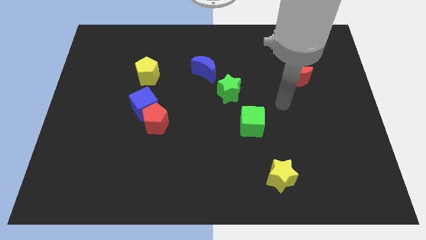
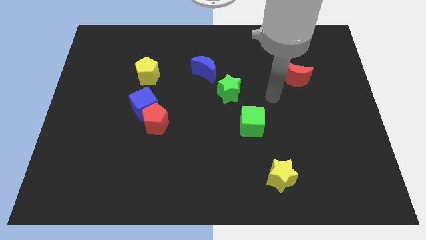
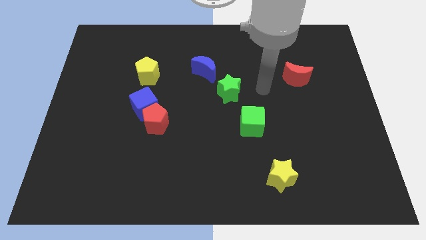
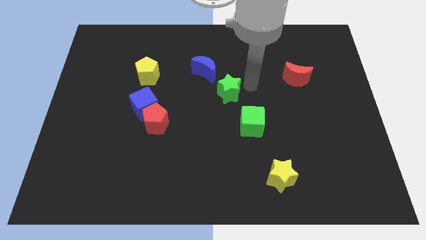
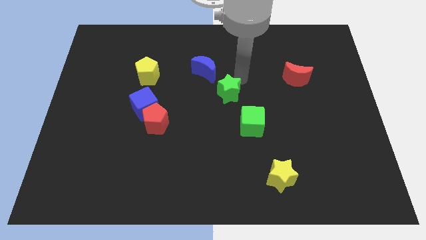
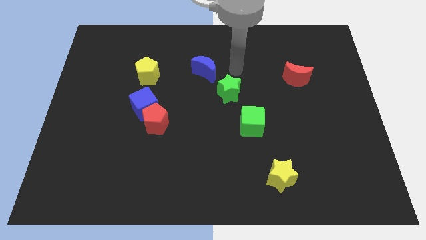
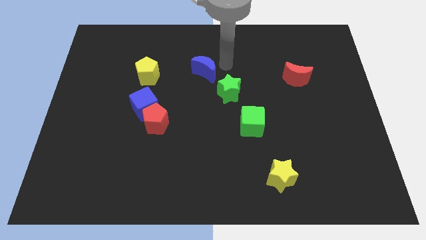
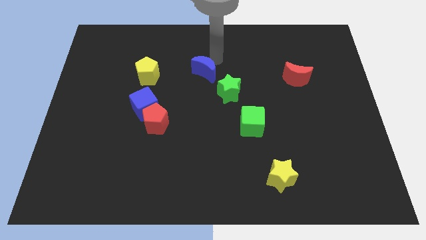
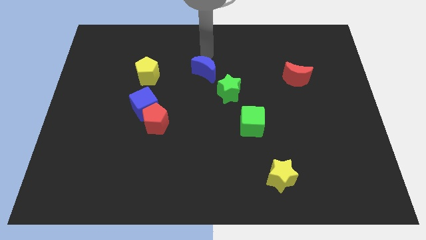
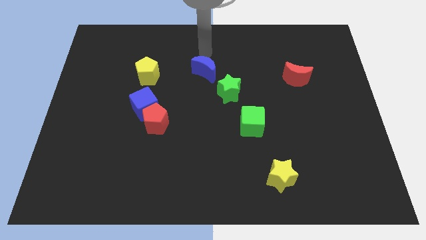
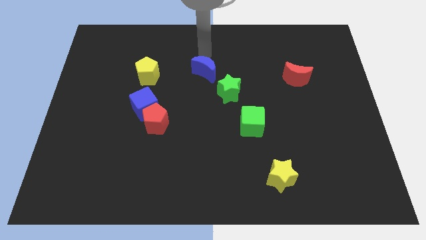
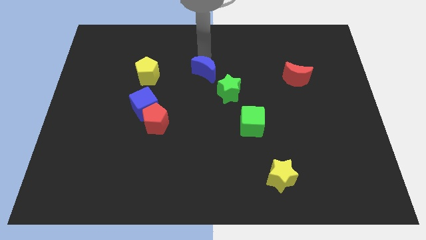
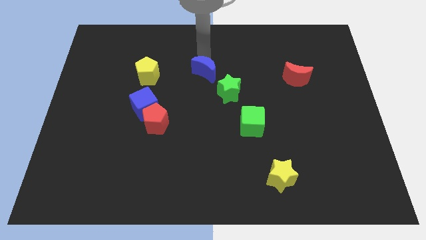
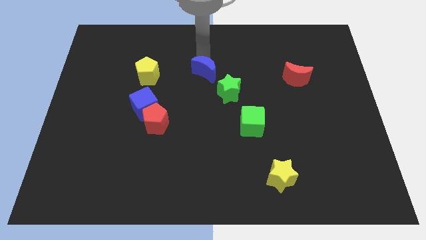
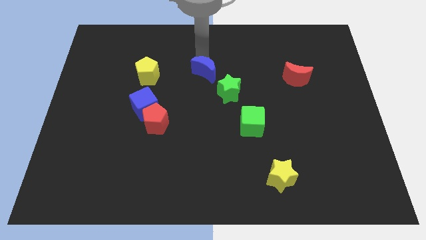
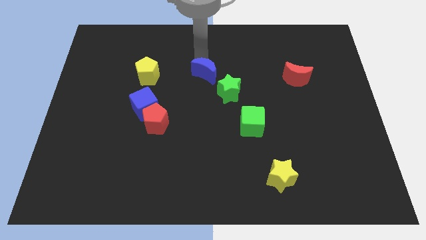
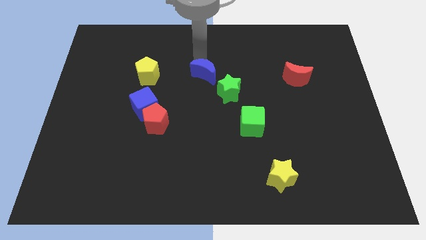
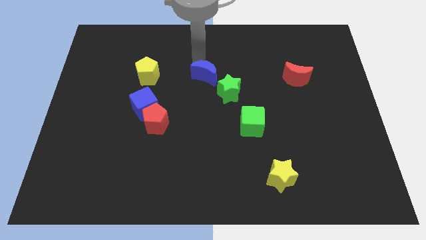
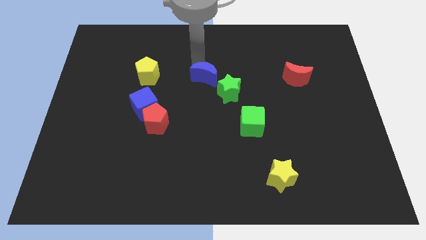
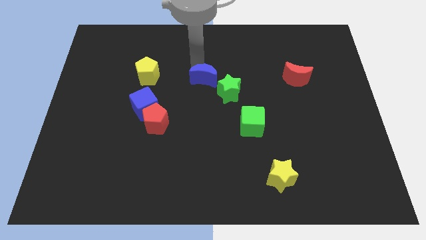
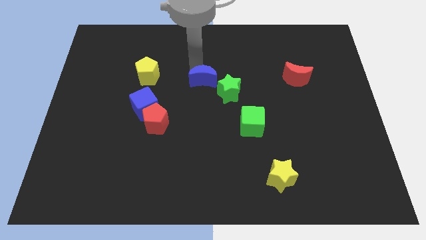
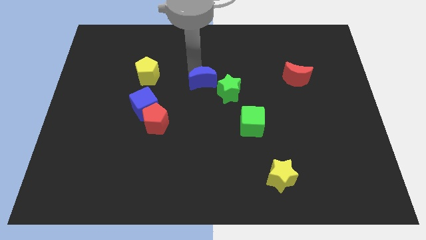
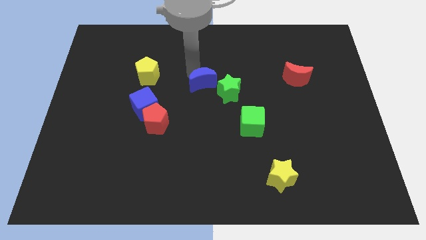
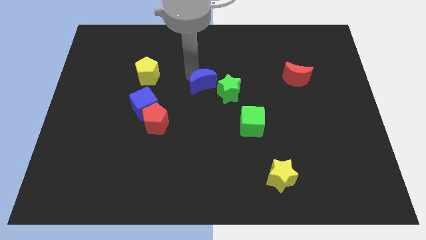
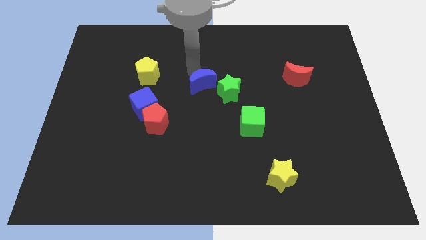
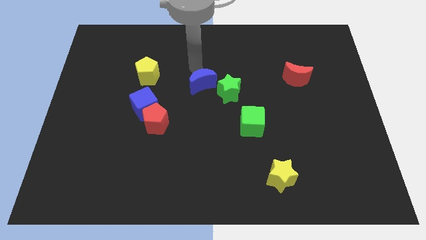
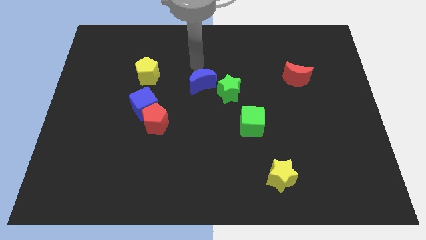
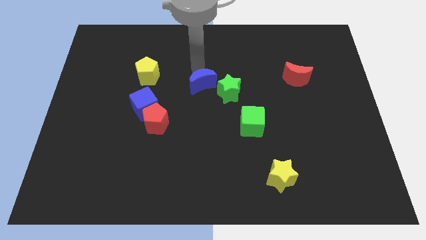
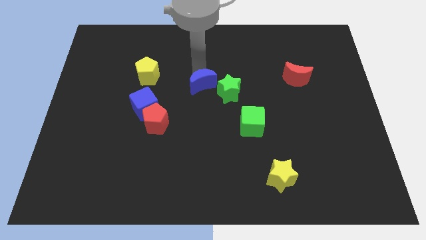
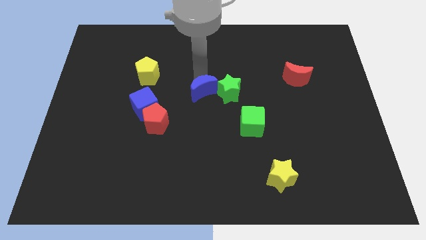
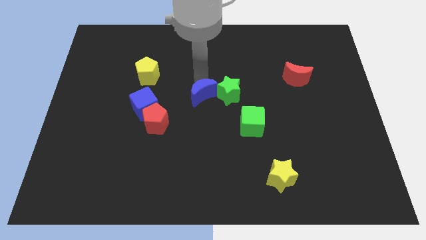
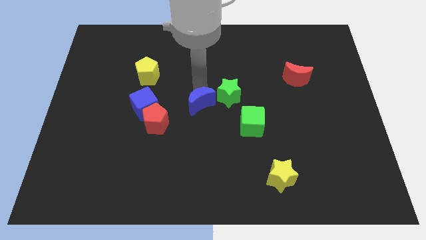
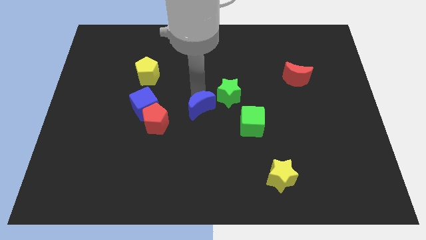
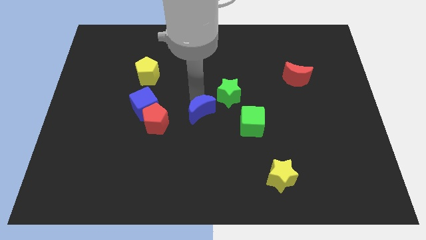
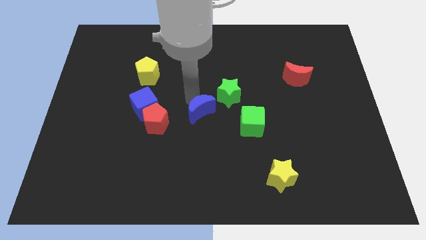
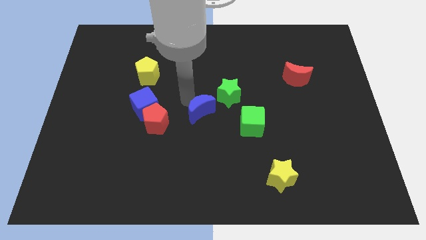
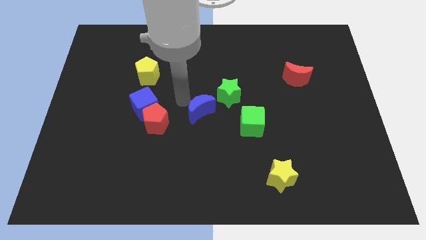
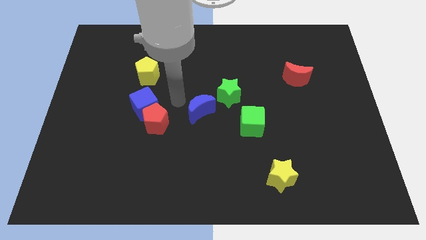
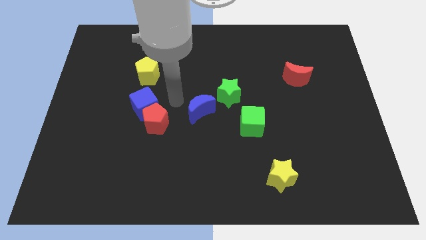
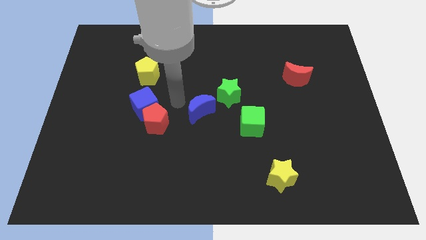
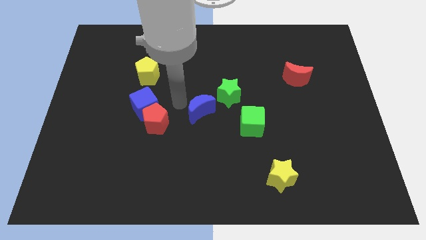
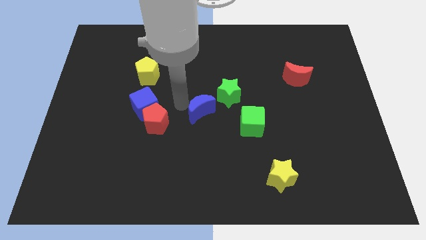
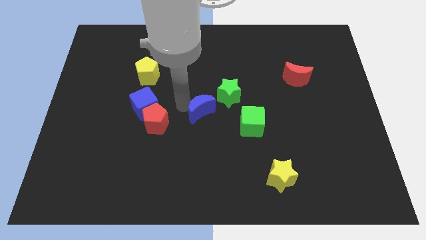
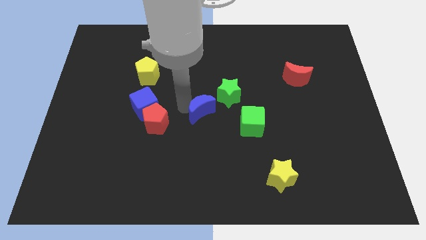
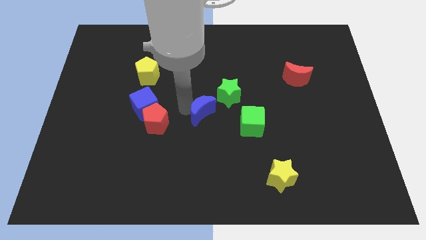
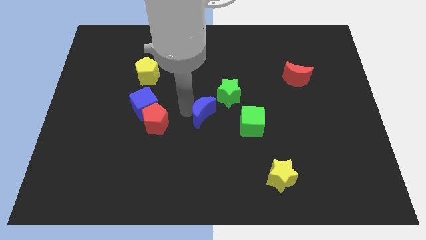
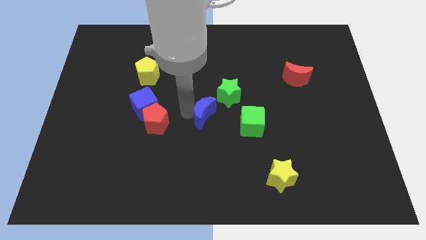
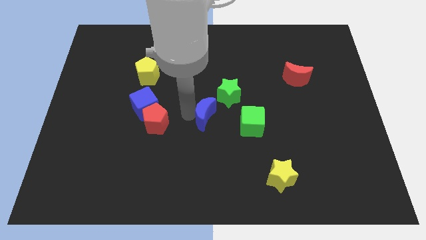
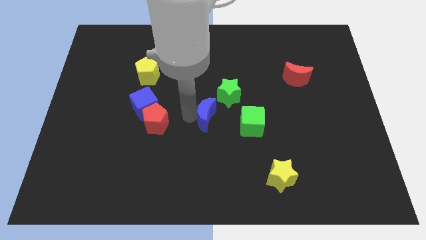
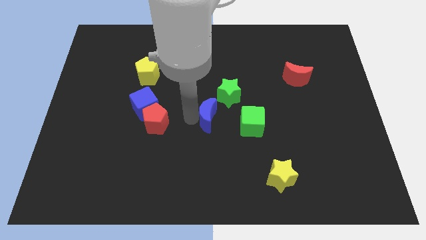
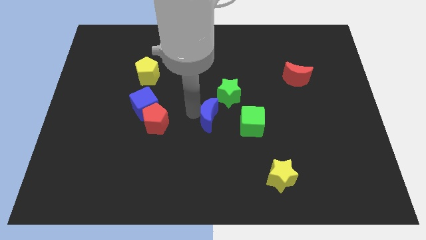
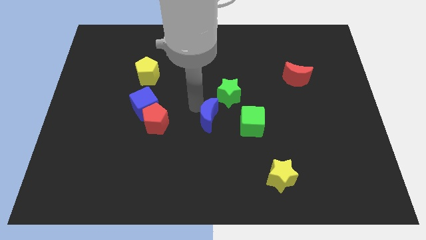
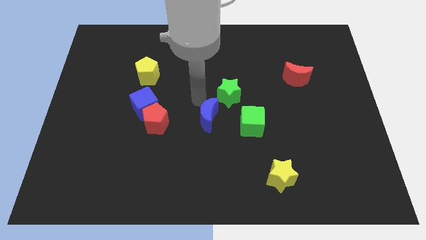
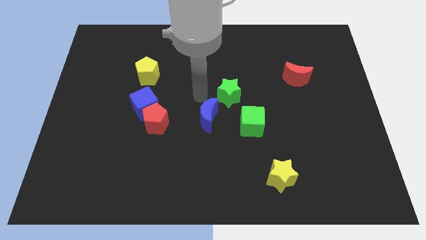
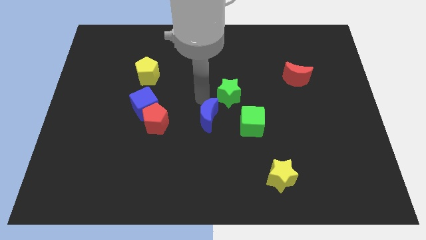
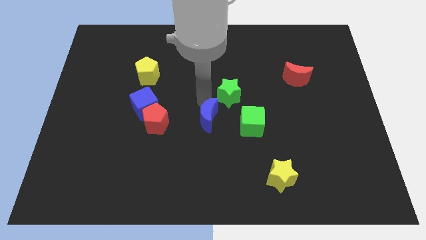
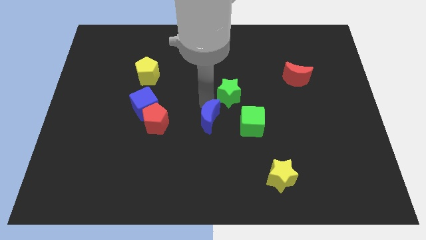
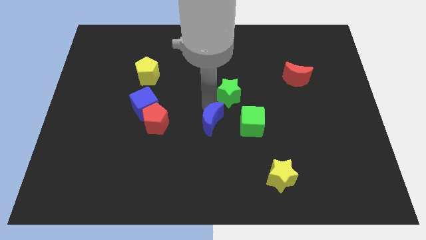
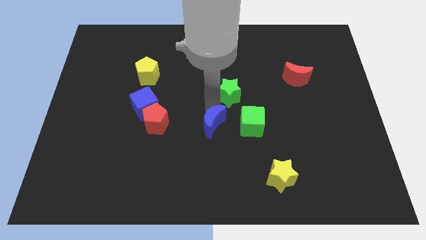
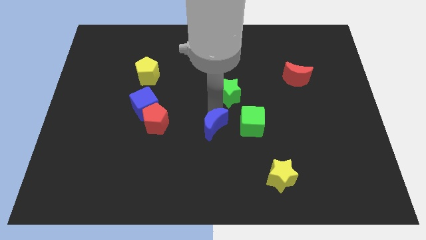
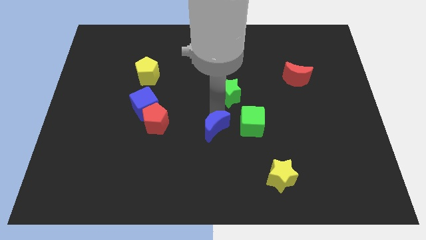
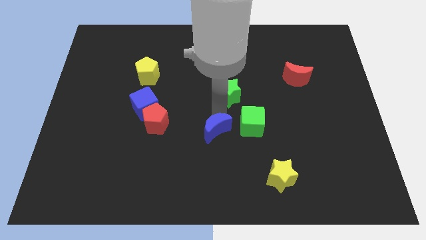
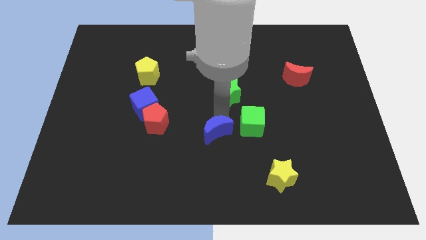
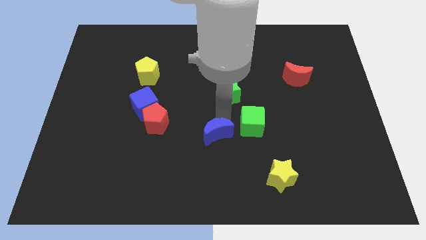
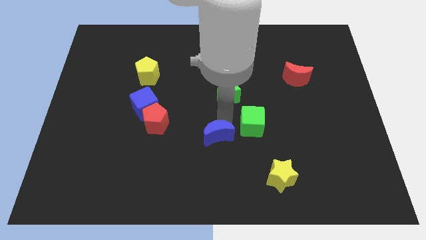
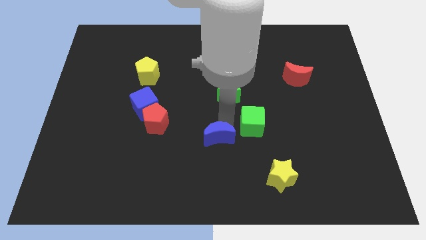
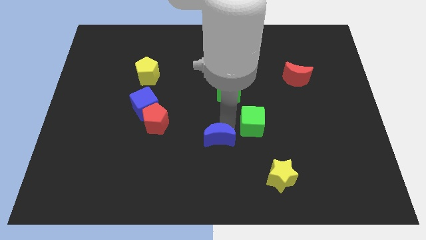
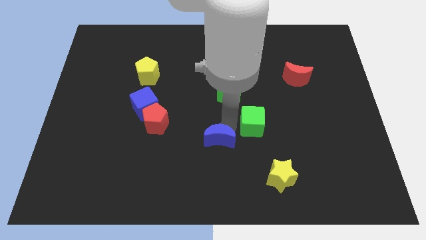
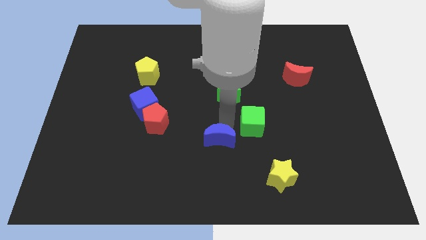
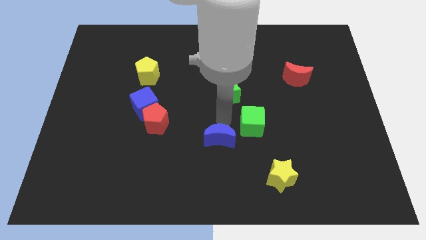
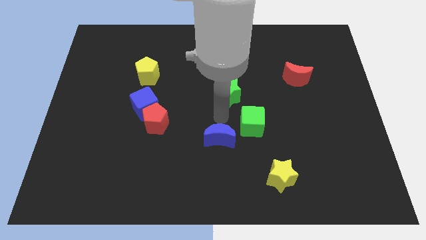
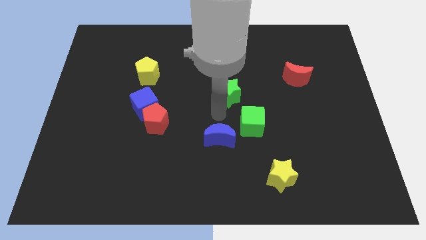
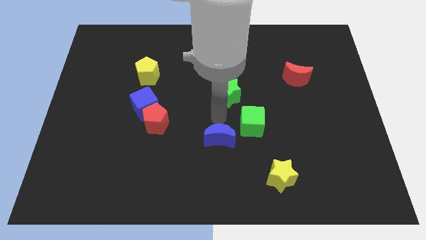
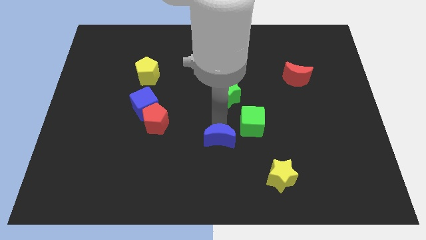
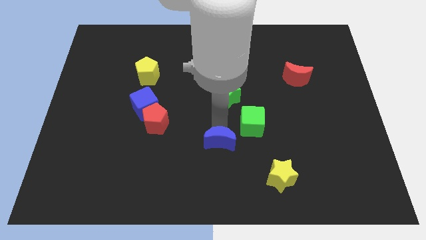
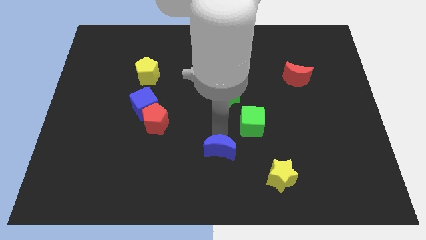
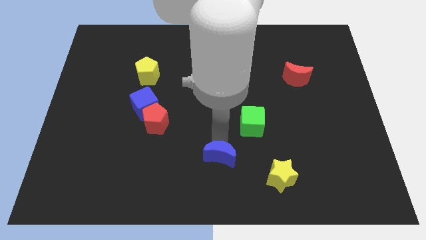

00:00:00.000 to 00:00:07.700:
move the blue moon to the bottom side
